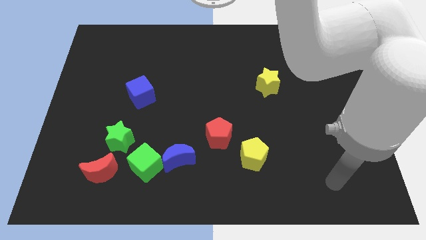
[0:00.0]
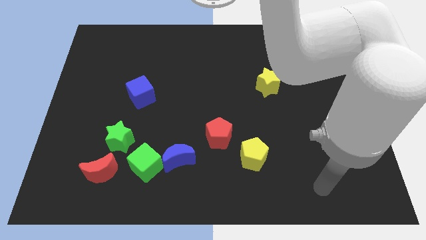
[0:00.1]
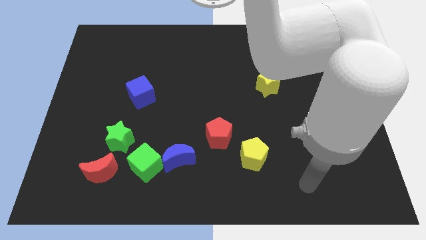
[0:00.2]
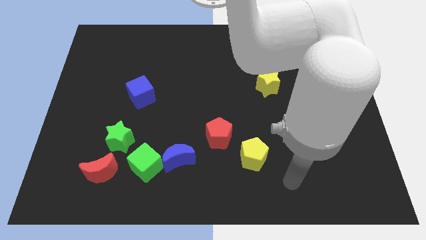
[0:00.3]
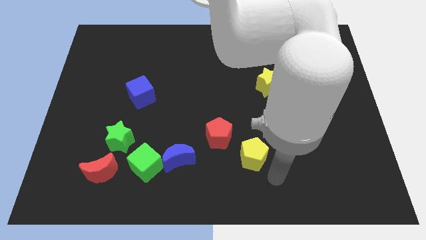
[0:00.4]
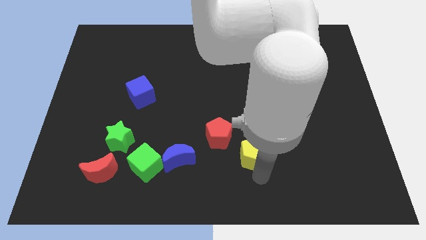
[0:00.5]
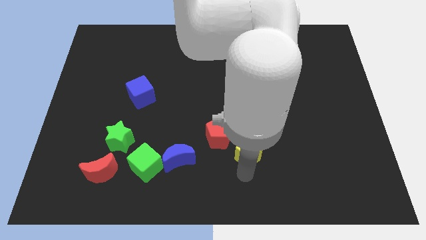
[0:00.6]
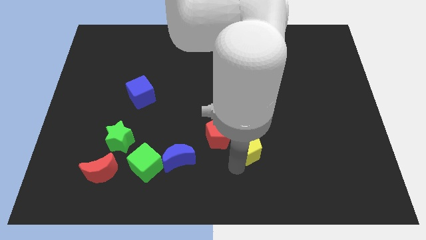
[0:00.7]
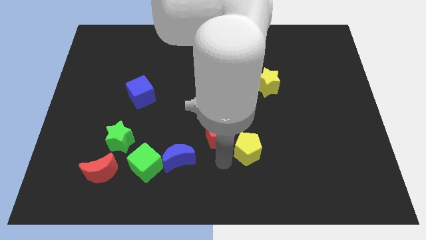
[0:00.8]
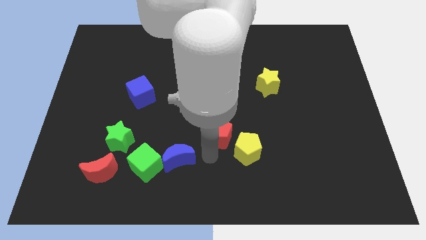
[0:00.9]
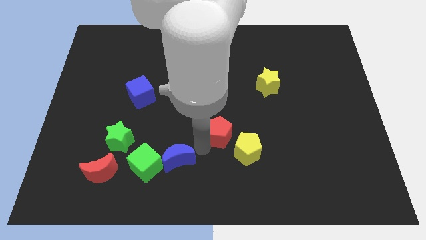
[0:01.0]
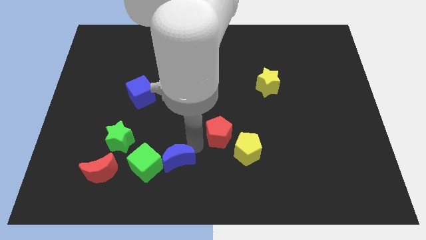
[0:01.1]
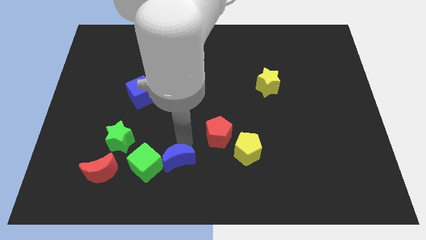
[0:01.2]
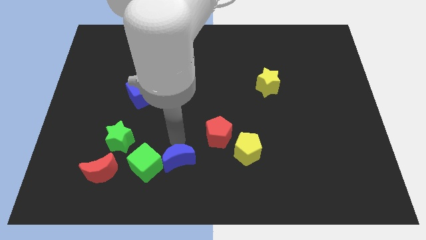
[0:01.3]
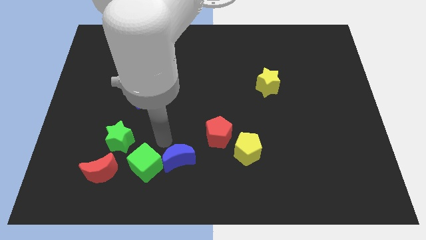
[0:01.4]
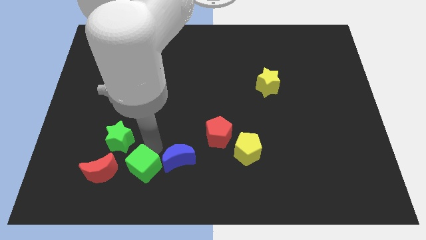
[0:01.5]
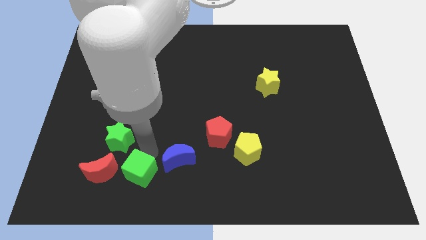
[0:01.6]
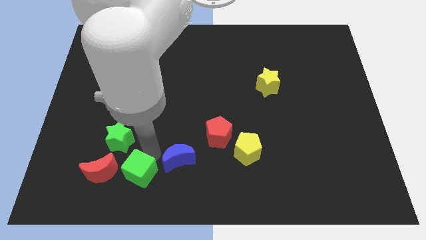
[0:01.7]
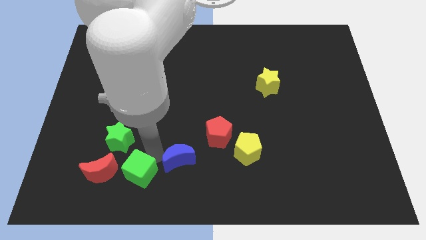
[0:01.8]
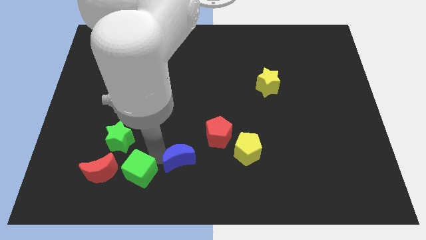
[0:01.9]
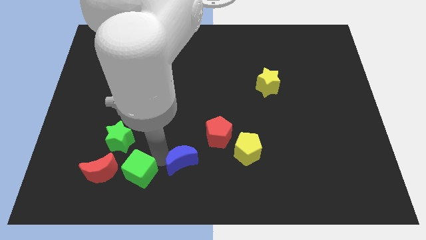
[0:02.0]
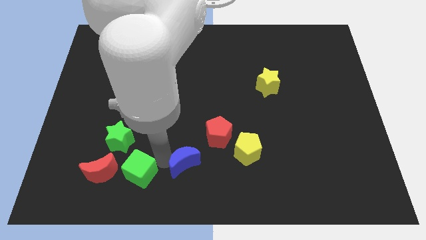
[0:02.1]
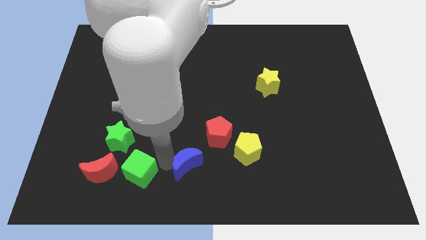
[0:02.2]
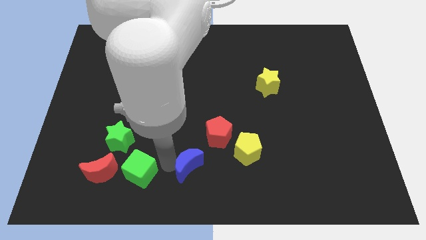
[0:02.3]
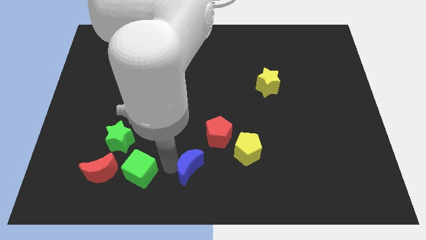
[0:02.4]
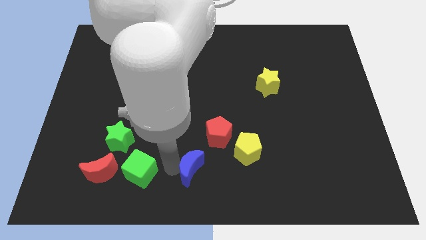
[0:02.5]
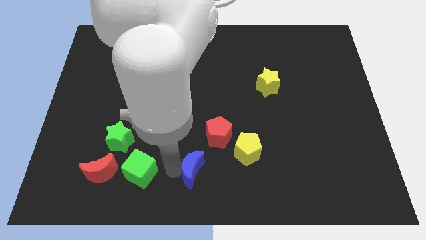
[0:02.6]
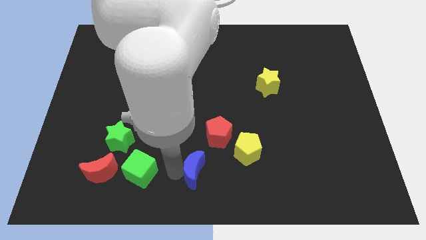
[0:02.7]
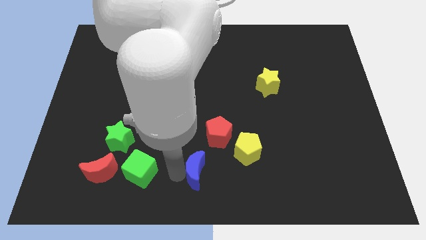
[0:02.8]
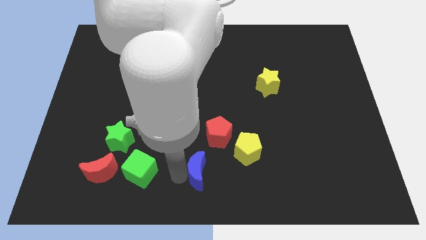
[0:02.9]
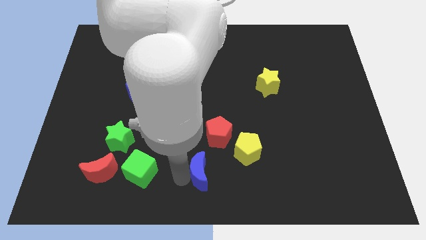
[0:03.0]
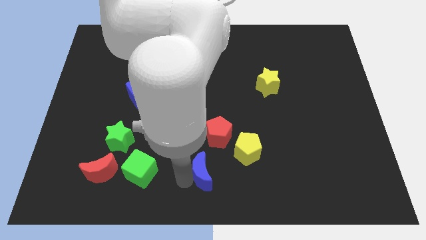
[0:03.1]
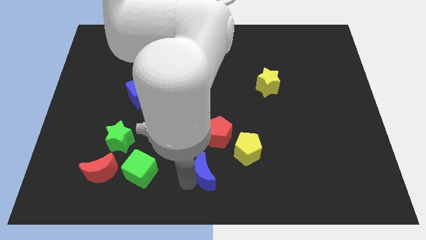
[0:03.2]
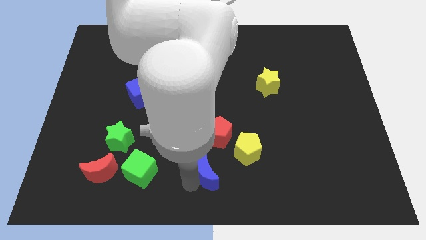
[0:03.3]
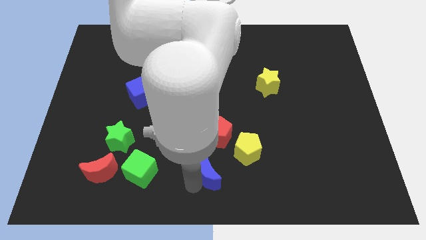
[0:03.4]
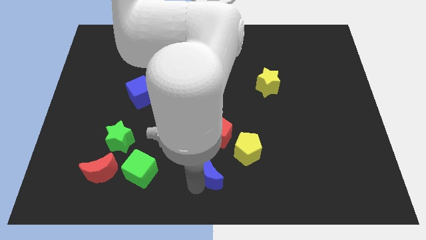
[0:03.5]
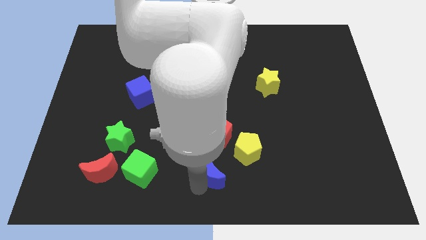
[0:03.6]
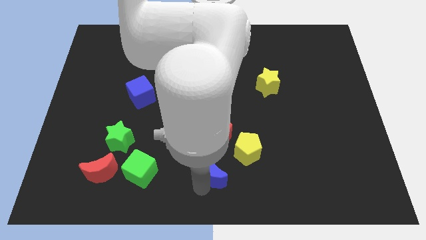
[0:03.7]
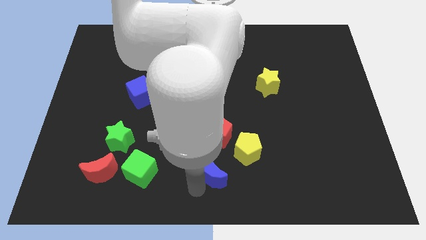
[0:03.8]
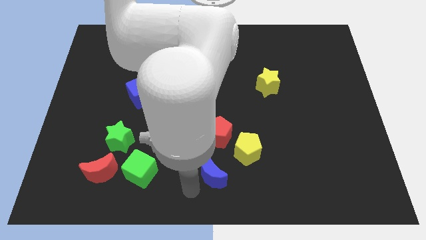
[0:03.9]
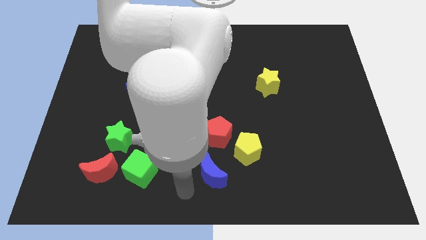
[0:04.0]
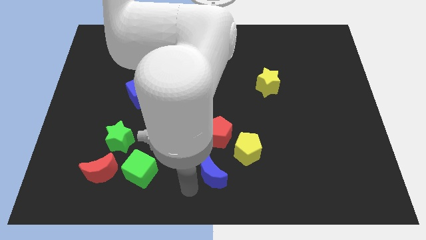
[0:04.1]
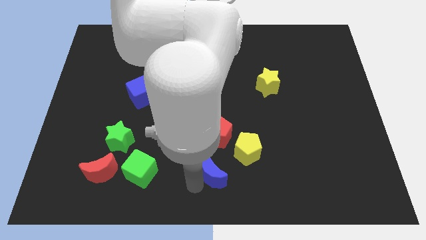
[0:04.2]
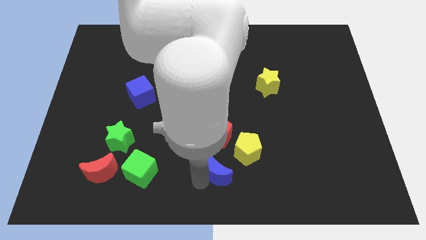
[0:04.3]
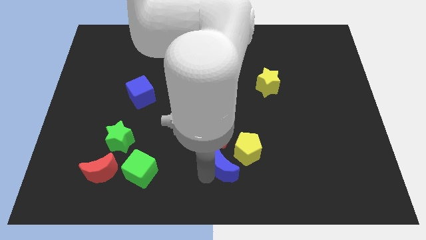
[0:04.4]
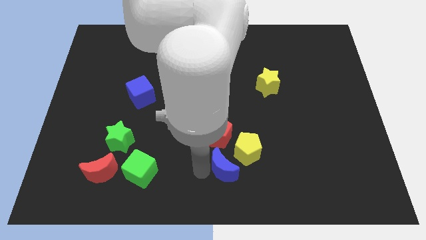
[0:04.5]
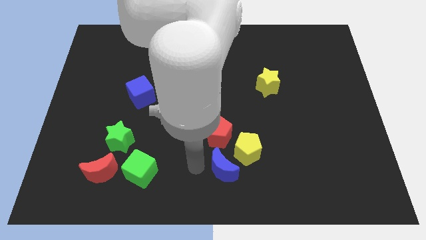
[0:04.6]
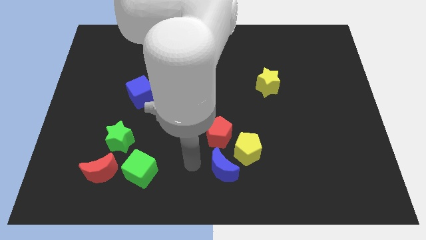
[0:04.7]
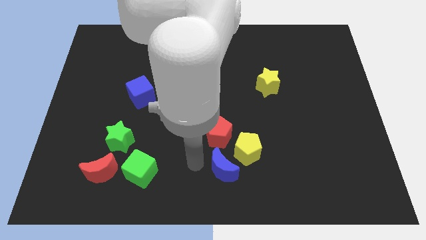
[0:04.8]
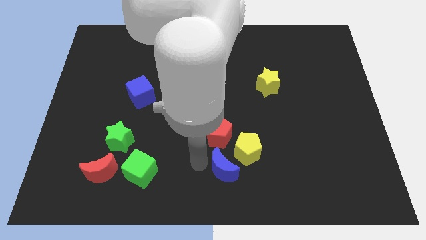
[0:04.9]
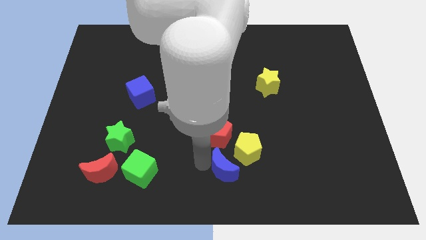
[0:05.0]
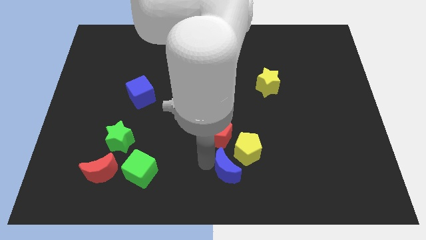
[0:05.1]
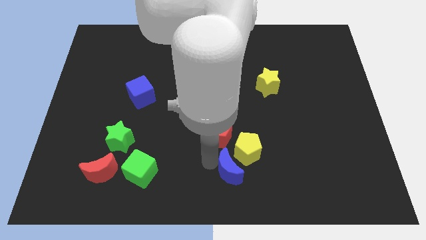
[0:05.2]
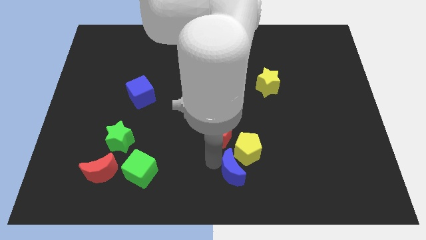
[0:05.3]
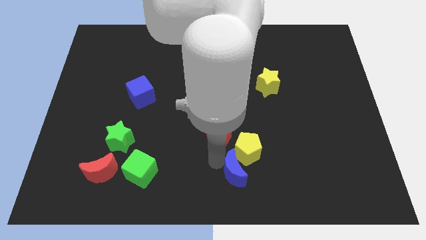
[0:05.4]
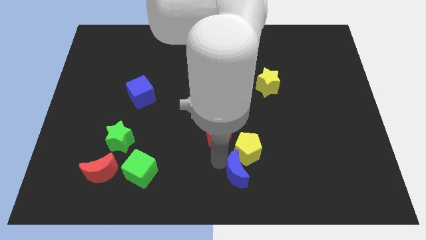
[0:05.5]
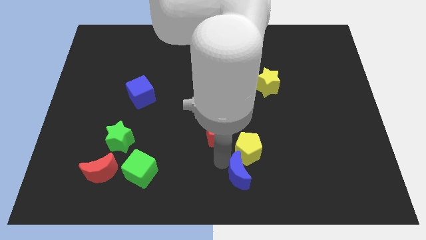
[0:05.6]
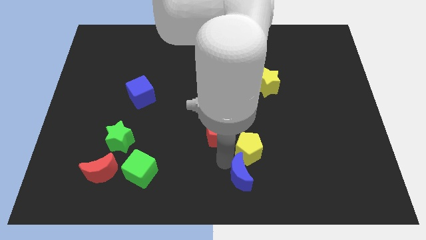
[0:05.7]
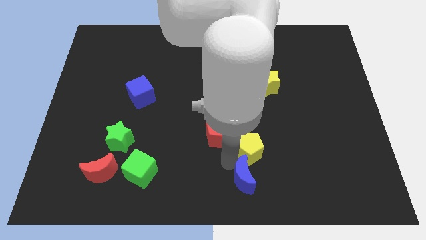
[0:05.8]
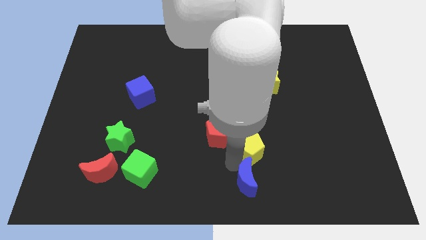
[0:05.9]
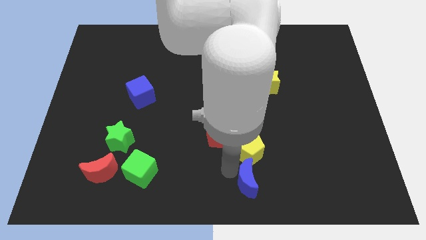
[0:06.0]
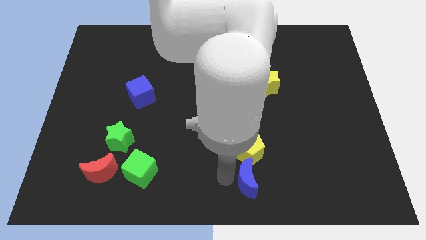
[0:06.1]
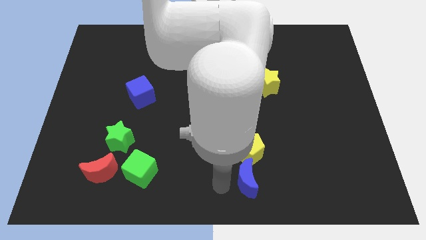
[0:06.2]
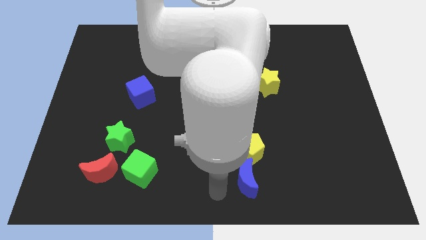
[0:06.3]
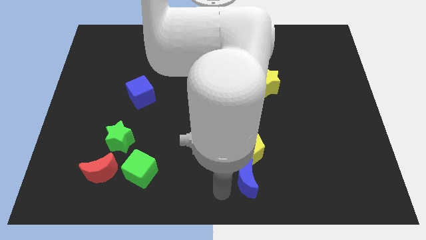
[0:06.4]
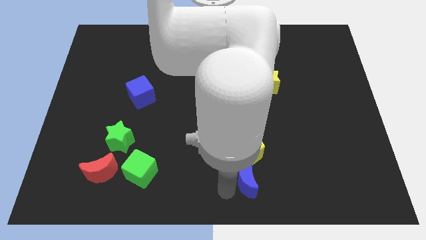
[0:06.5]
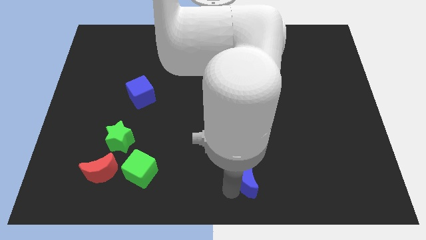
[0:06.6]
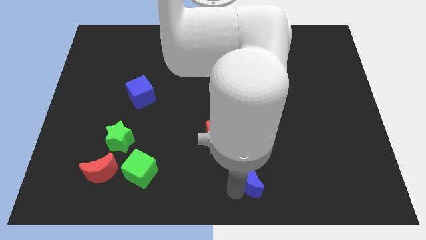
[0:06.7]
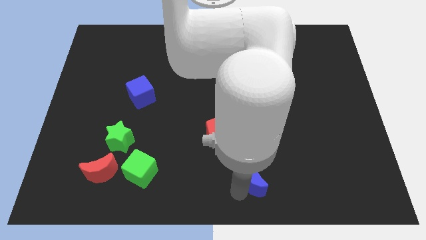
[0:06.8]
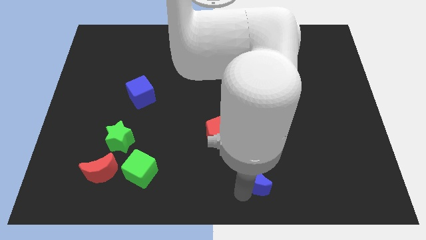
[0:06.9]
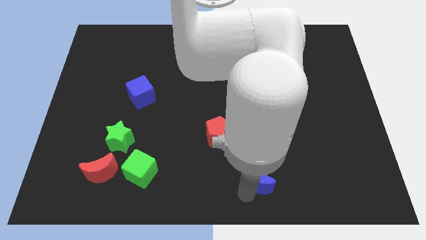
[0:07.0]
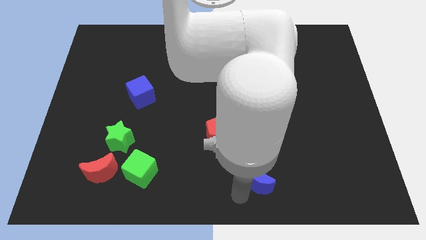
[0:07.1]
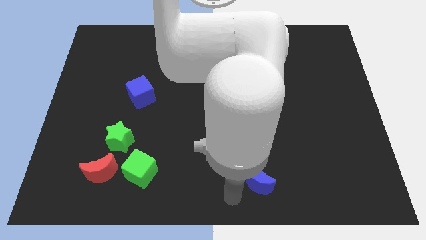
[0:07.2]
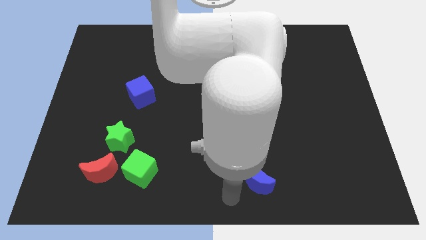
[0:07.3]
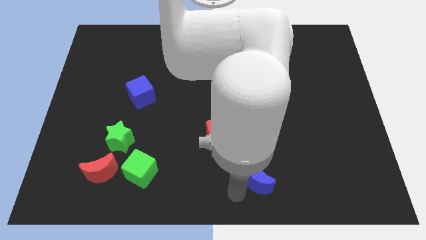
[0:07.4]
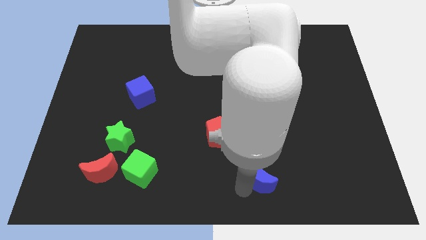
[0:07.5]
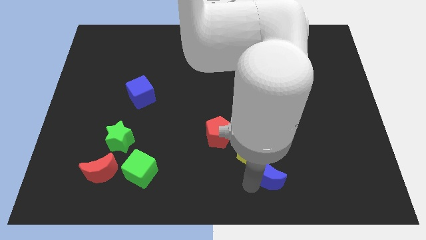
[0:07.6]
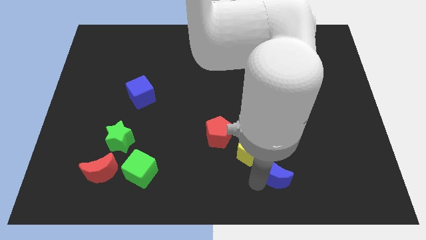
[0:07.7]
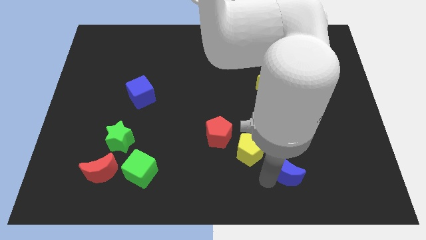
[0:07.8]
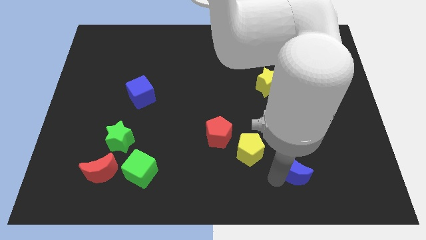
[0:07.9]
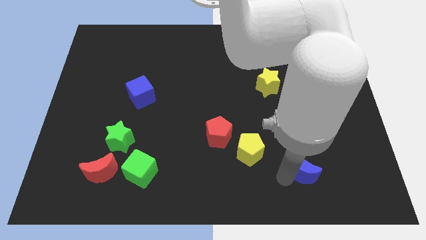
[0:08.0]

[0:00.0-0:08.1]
slide the blue moon just right of the yellow pentagon
